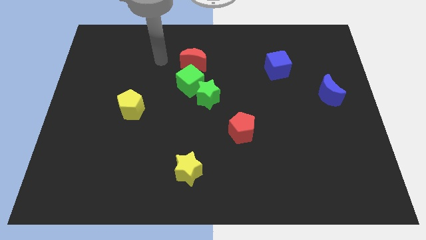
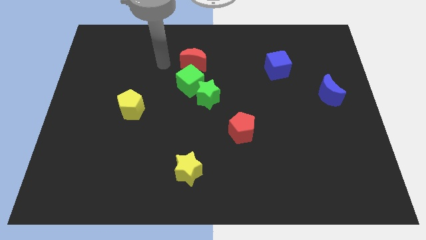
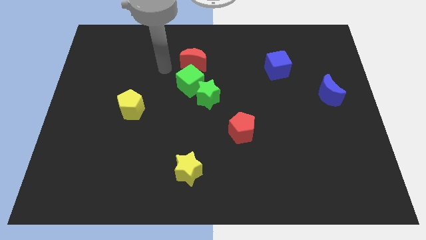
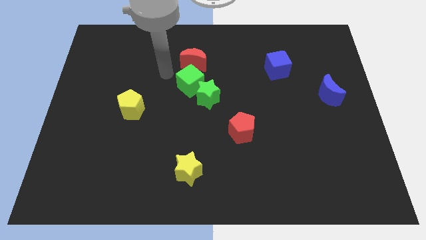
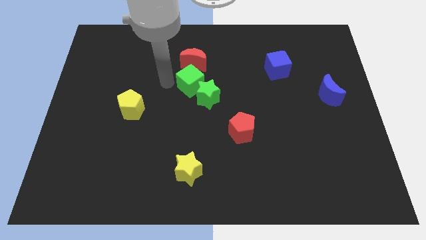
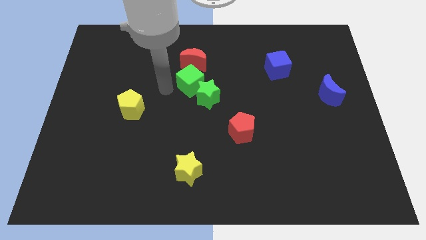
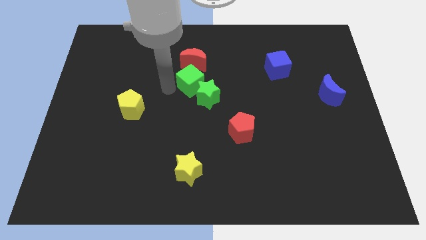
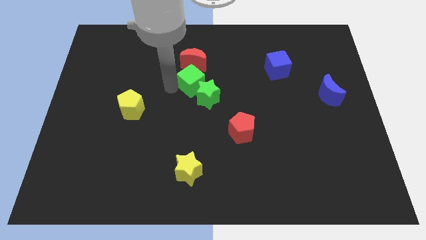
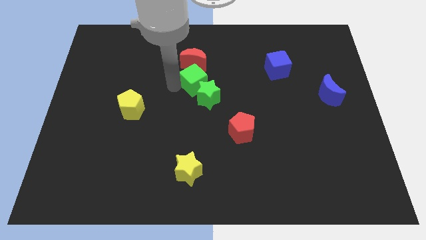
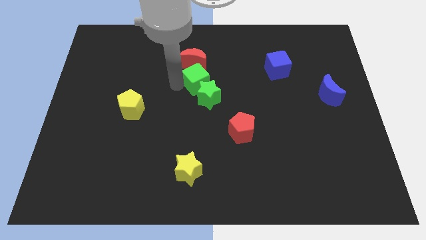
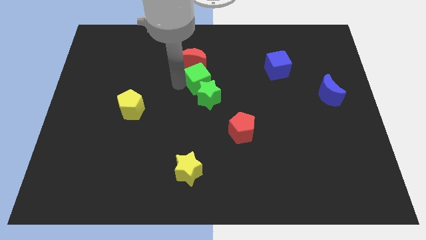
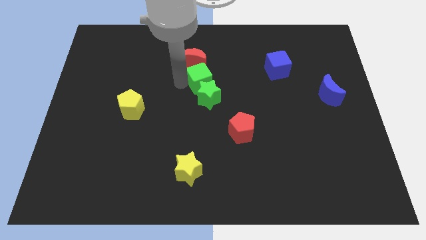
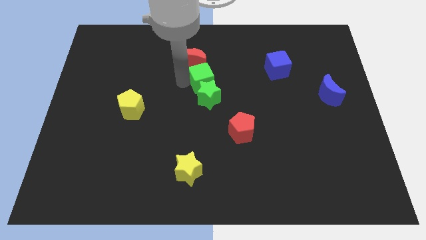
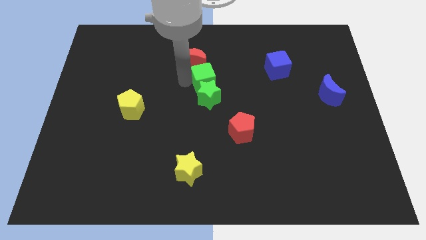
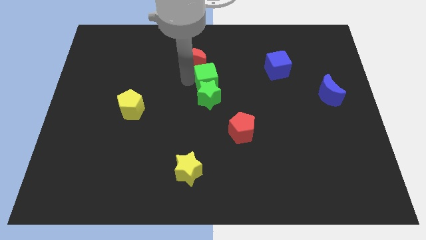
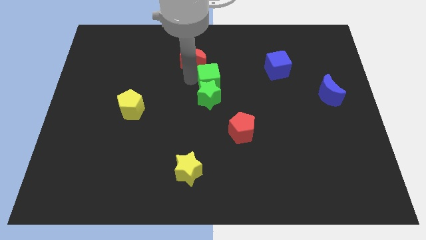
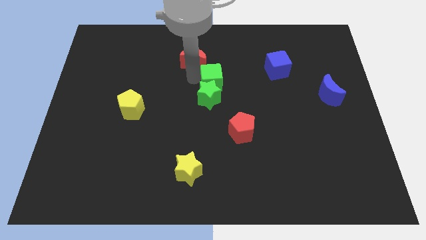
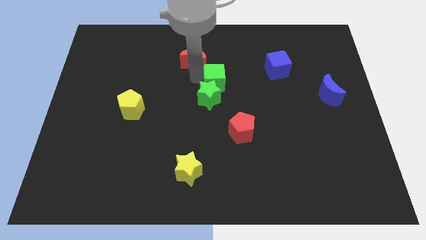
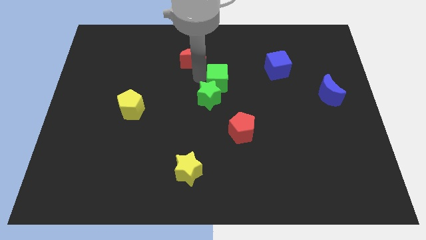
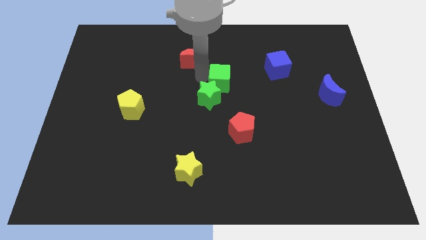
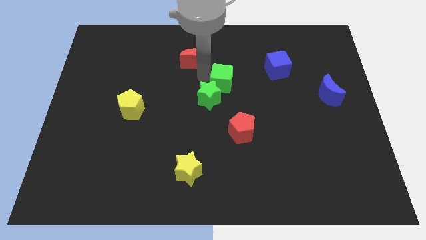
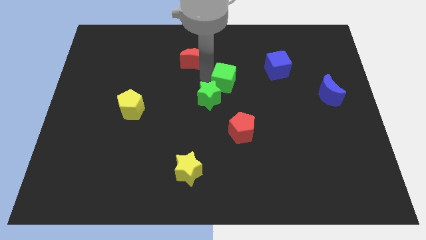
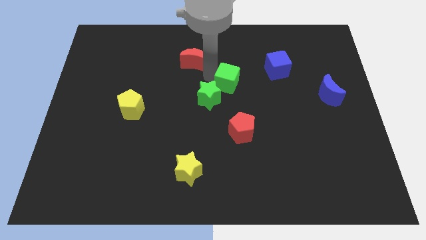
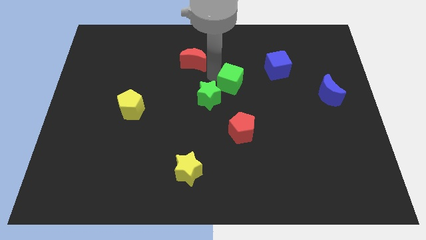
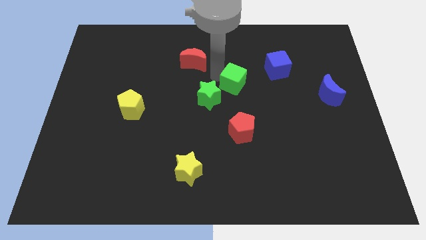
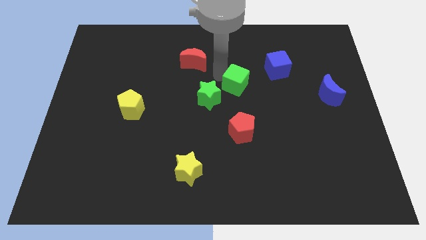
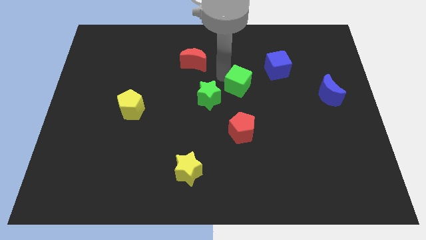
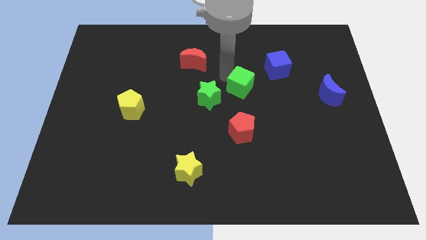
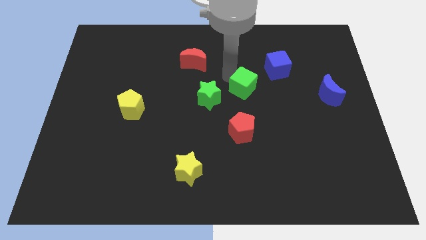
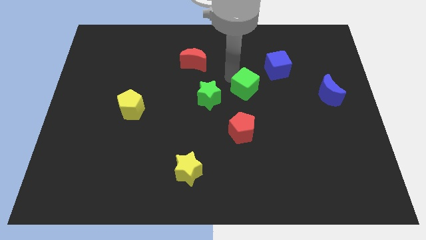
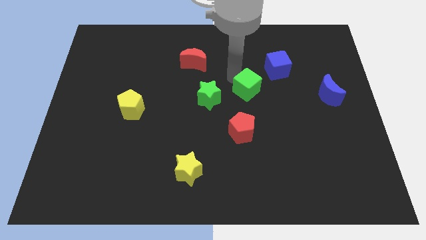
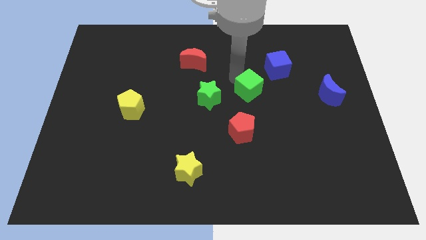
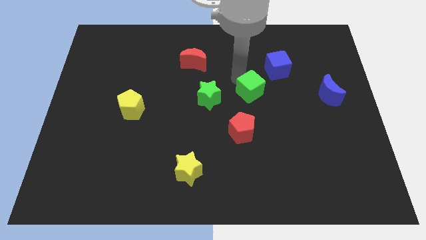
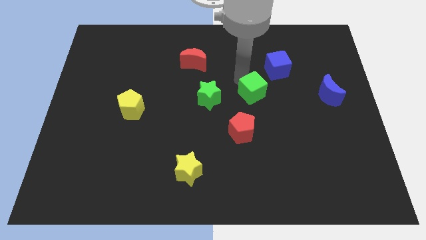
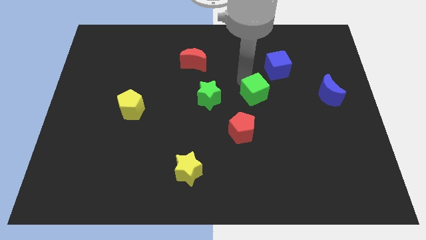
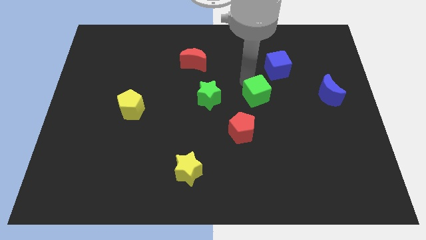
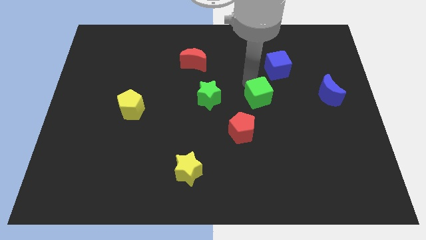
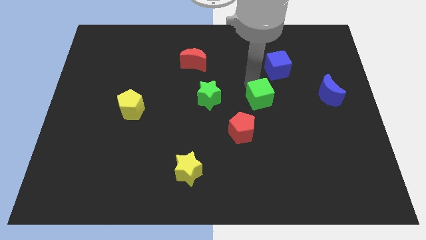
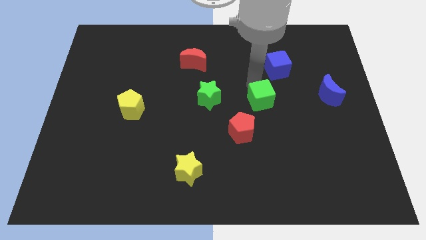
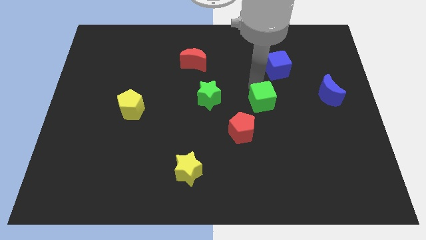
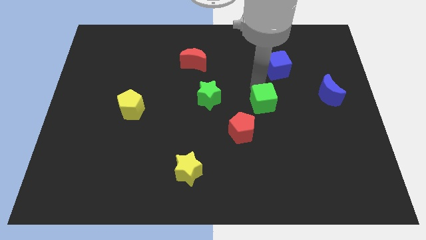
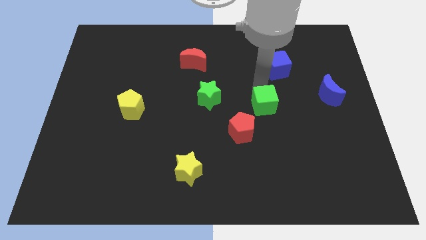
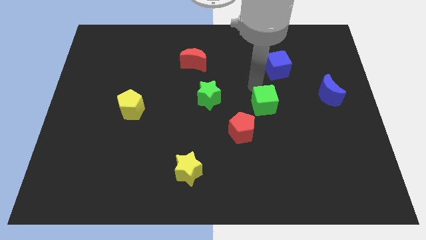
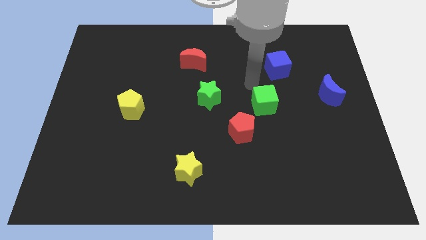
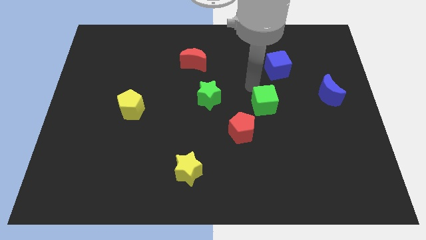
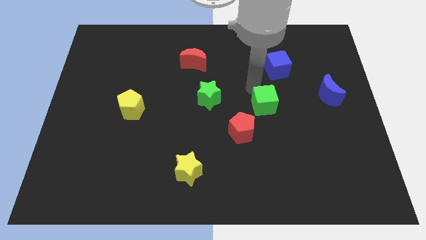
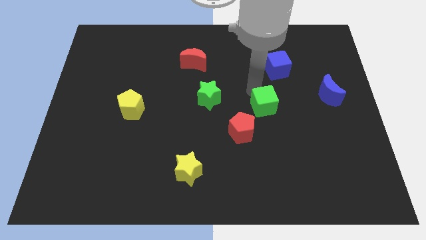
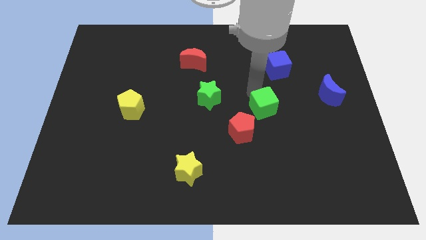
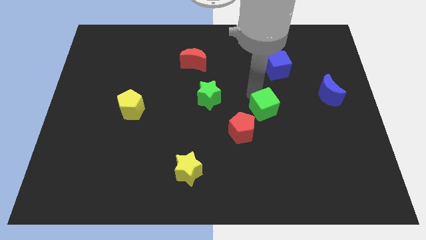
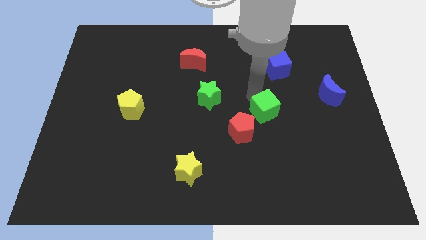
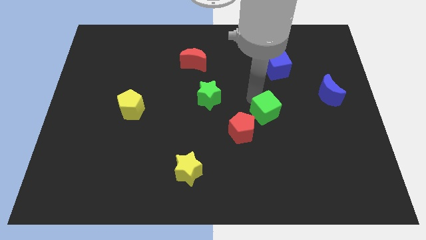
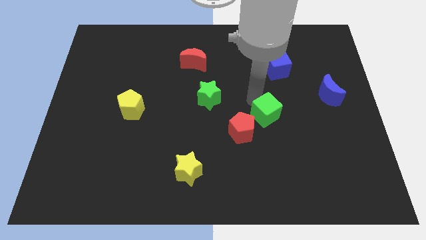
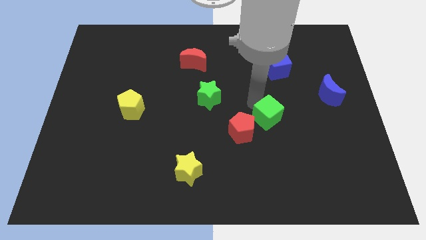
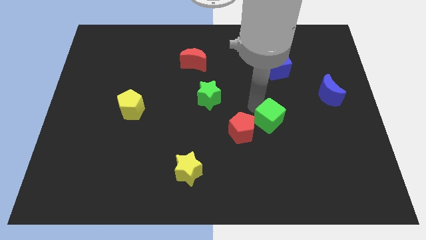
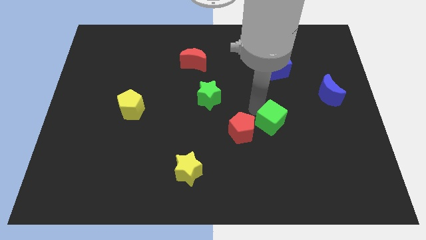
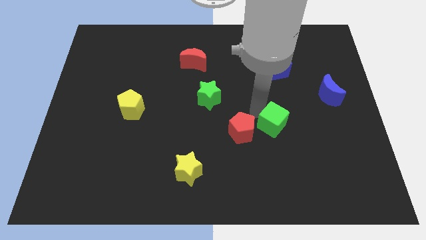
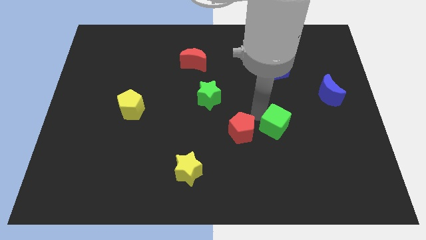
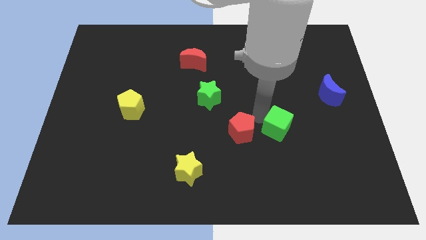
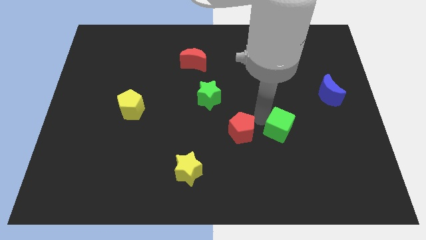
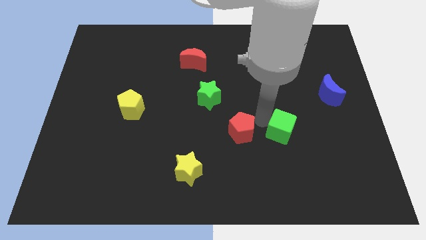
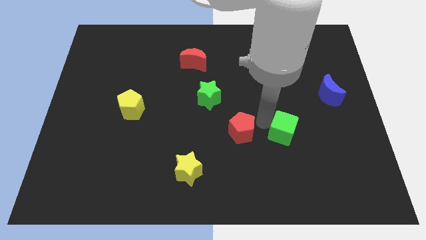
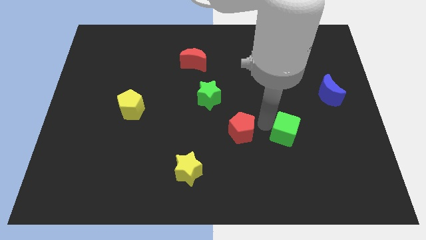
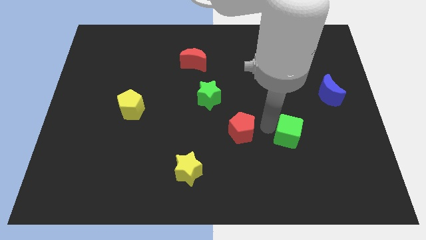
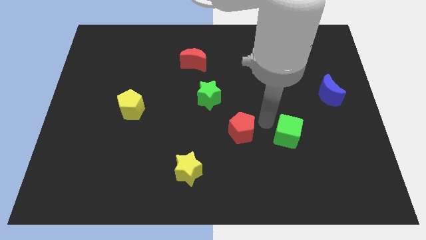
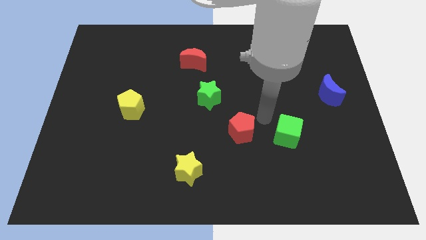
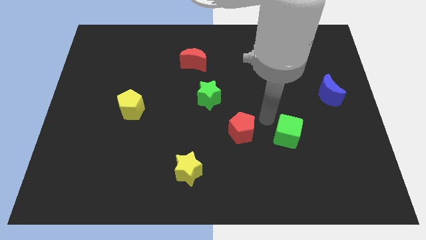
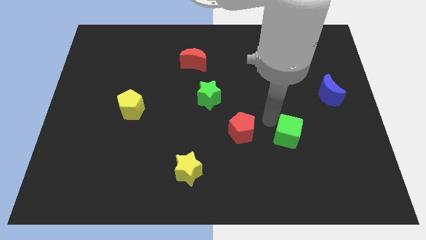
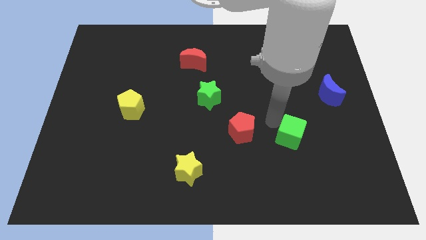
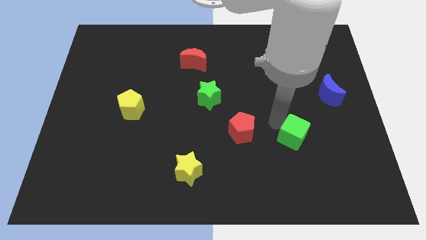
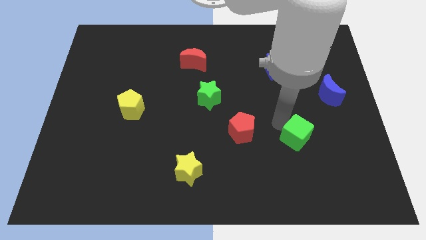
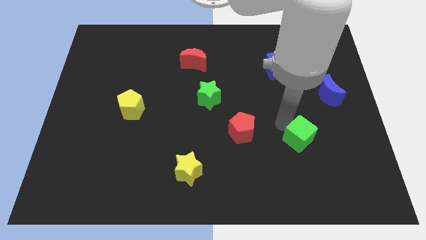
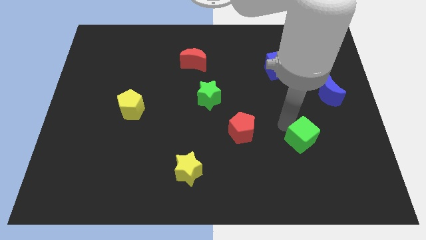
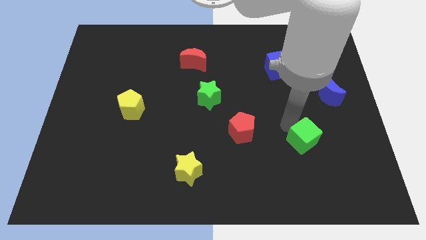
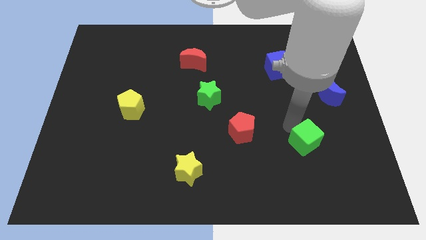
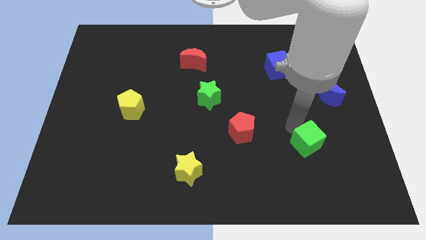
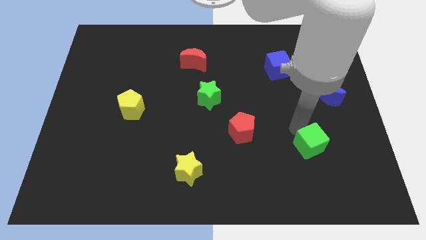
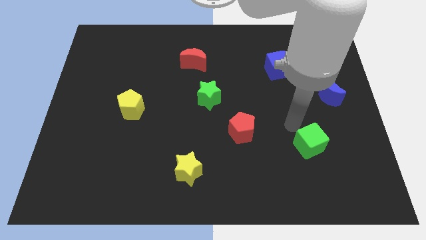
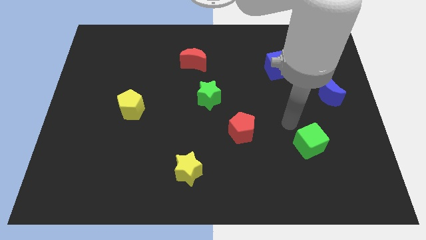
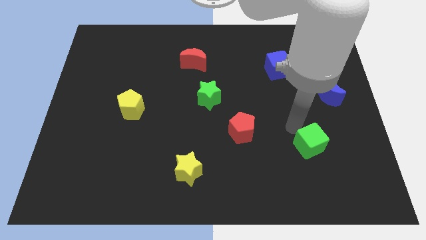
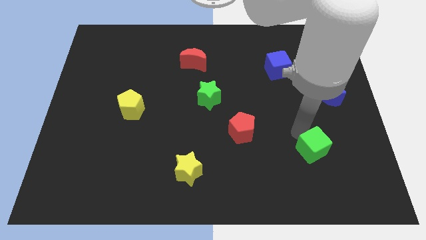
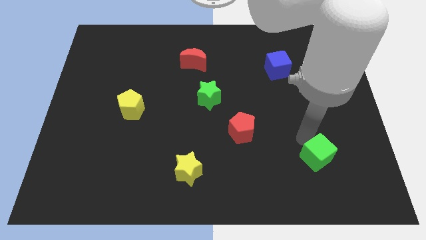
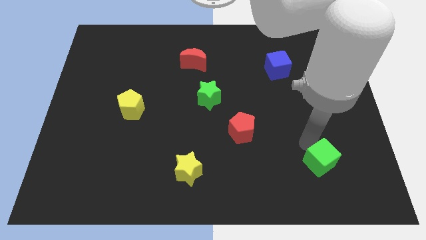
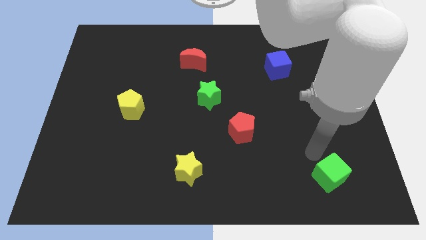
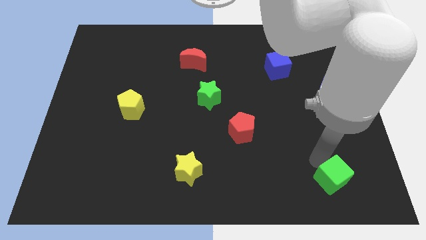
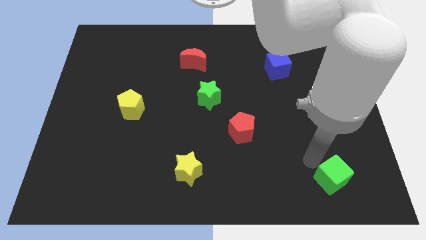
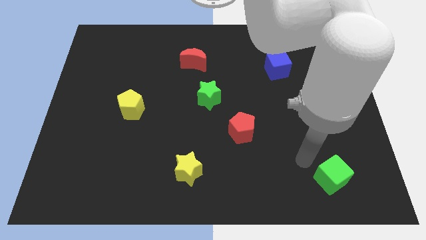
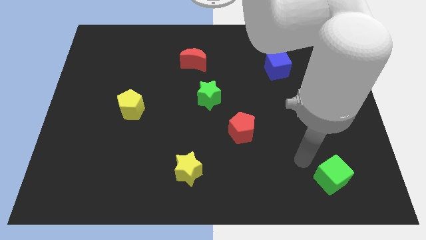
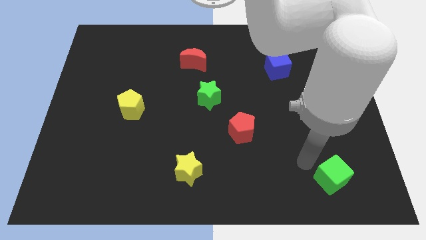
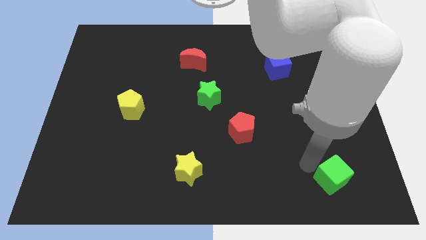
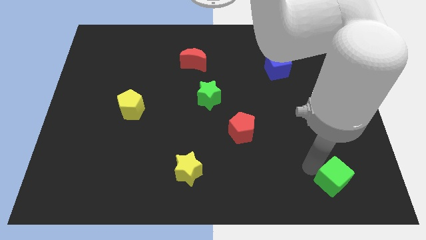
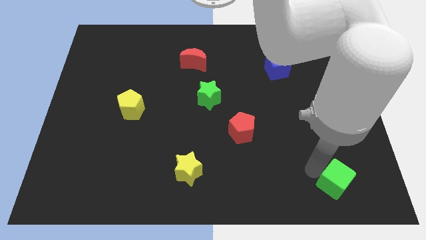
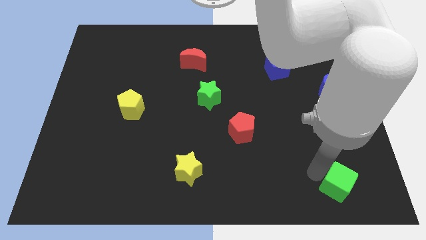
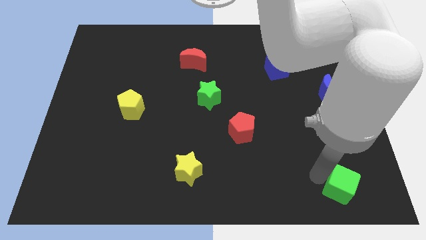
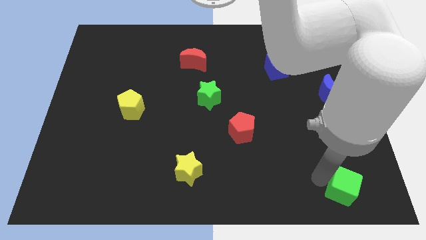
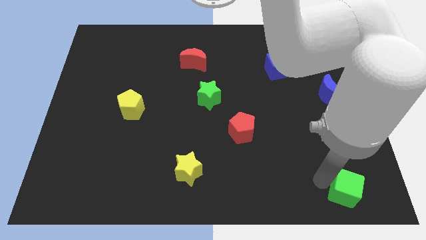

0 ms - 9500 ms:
move the green cube to the bottom right
